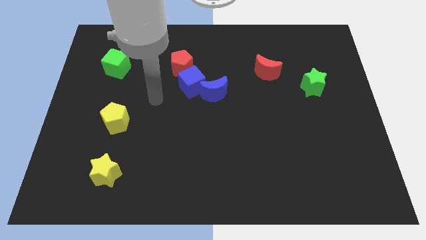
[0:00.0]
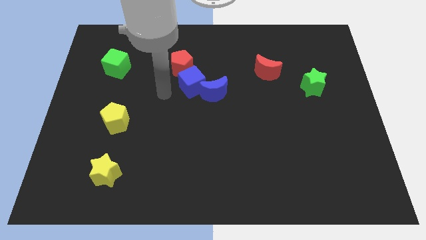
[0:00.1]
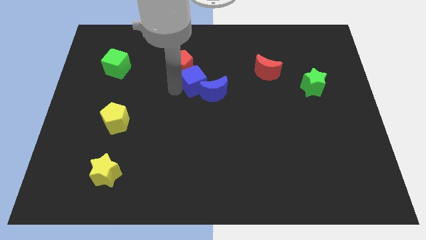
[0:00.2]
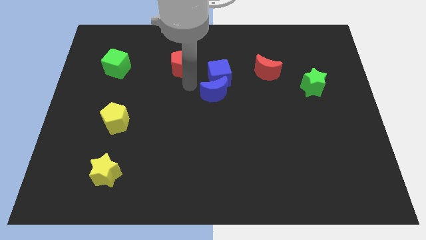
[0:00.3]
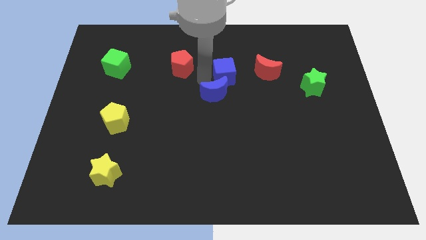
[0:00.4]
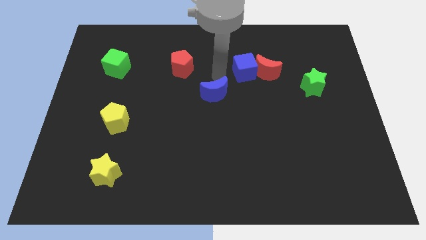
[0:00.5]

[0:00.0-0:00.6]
separate the blue moon from the blue cube

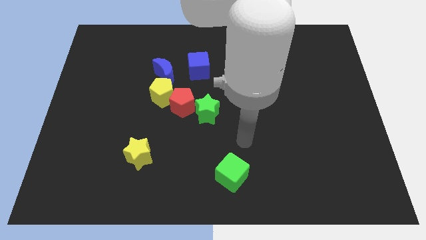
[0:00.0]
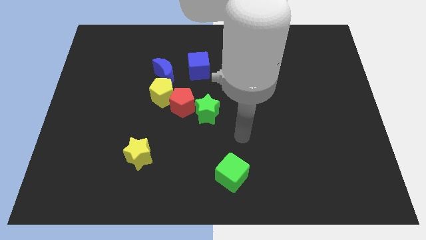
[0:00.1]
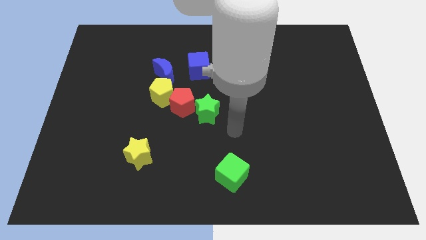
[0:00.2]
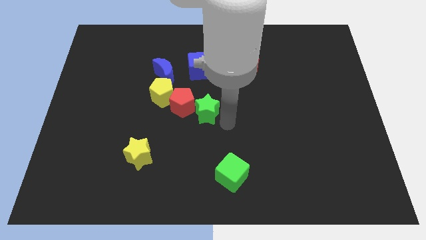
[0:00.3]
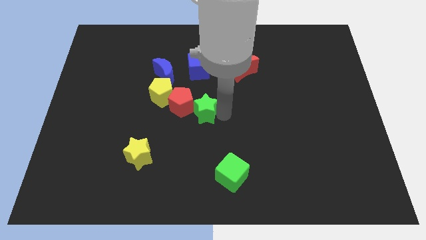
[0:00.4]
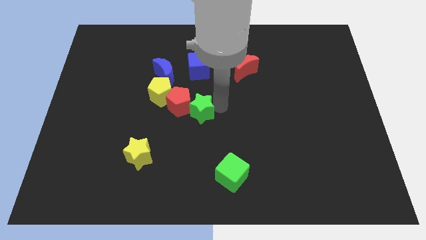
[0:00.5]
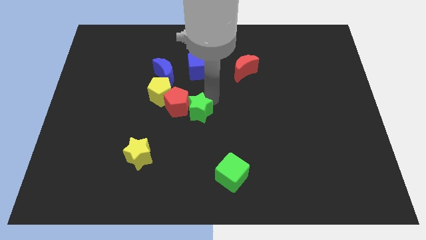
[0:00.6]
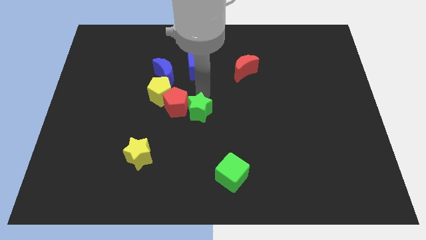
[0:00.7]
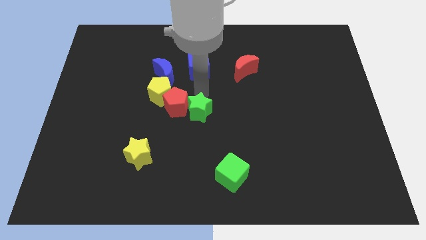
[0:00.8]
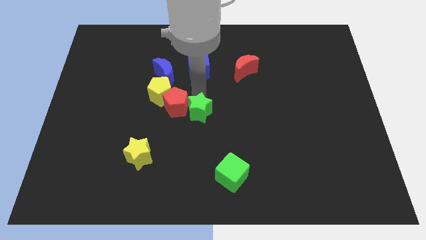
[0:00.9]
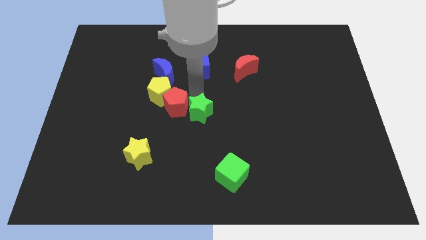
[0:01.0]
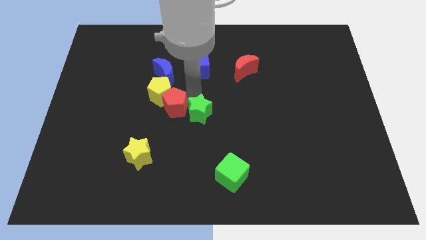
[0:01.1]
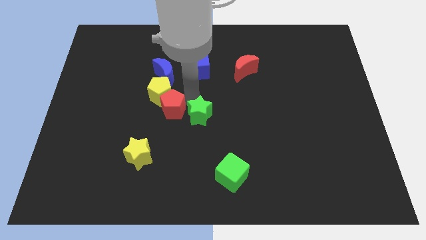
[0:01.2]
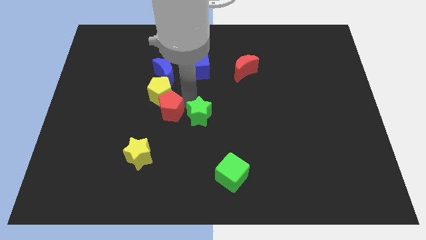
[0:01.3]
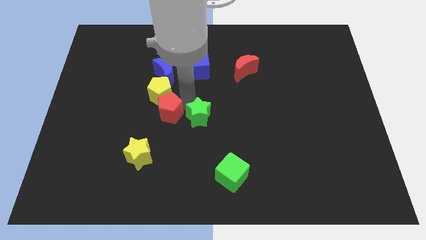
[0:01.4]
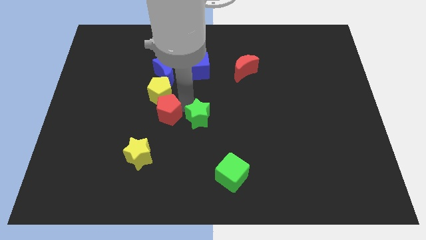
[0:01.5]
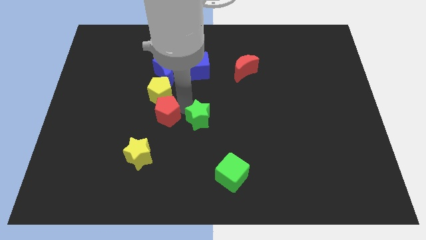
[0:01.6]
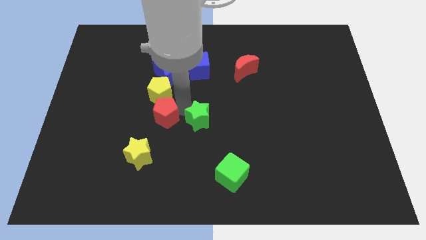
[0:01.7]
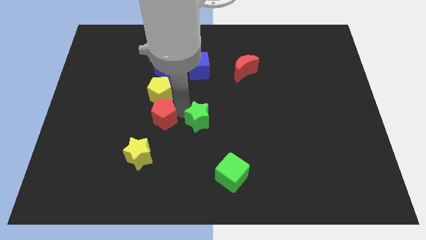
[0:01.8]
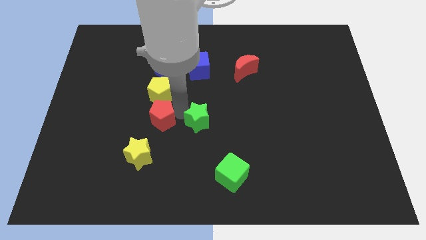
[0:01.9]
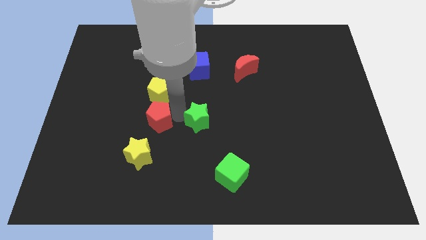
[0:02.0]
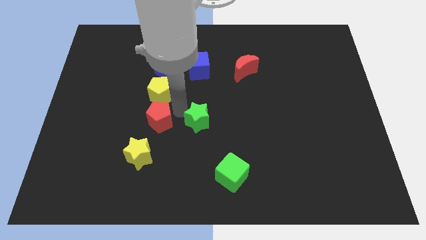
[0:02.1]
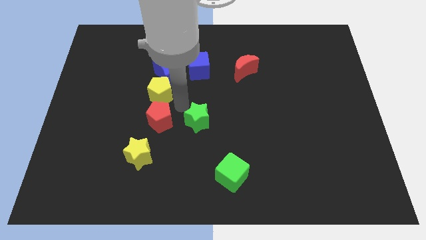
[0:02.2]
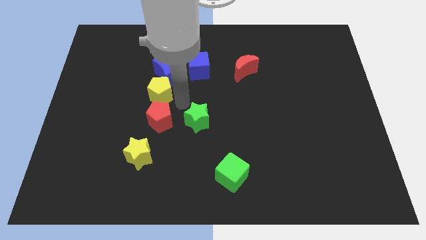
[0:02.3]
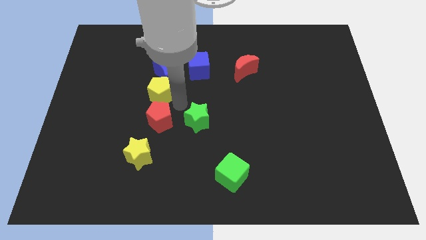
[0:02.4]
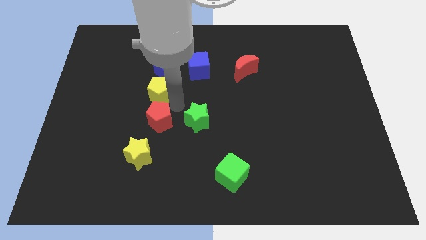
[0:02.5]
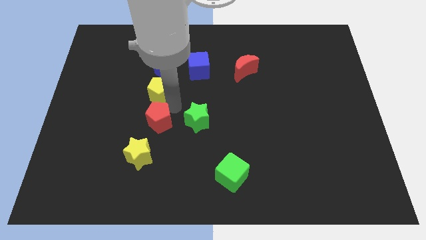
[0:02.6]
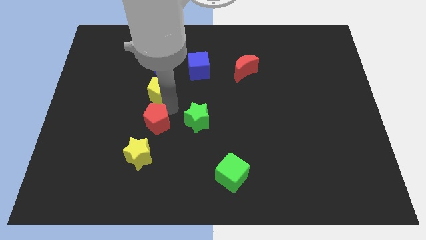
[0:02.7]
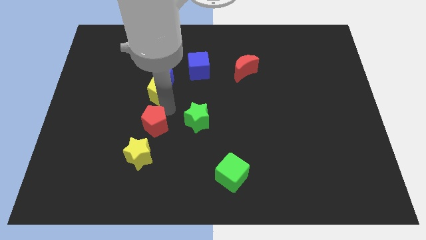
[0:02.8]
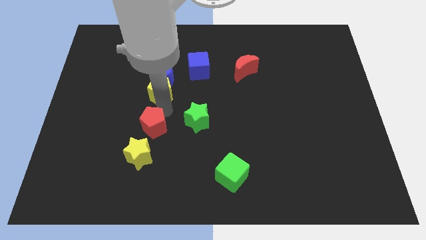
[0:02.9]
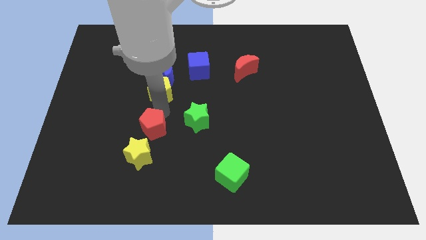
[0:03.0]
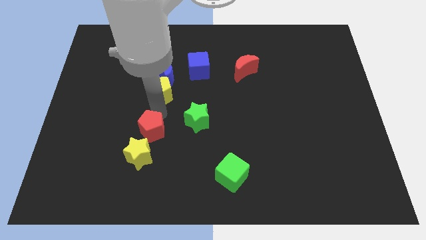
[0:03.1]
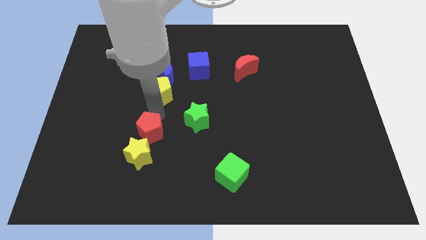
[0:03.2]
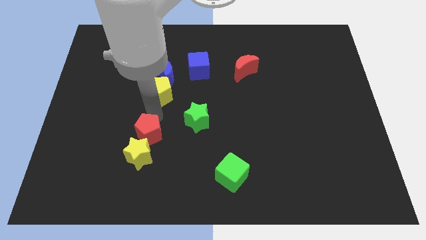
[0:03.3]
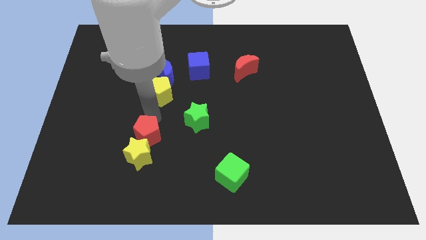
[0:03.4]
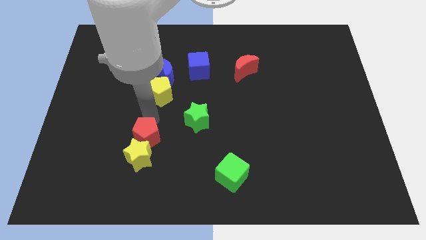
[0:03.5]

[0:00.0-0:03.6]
pull the red pentagon apart from the yellow pentagon and green star

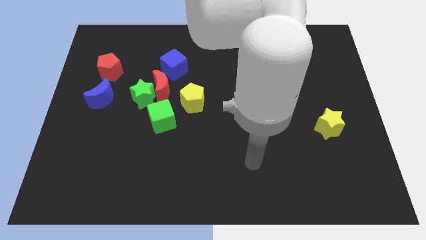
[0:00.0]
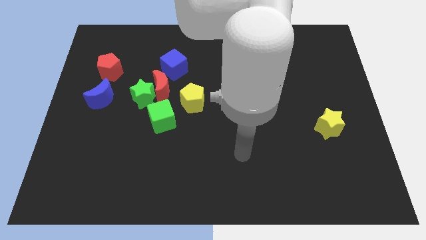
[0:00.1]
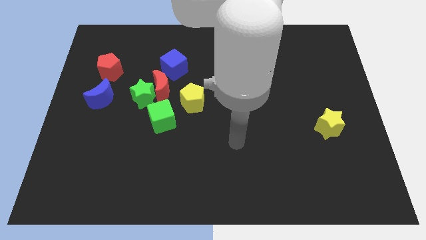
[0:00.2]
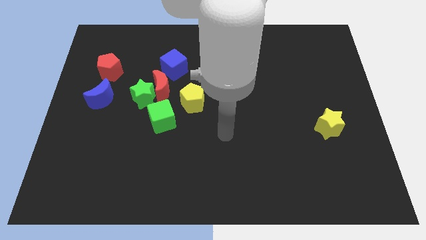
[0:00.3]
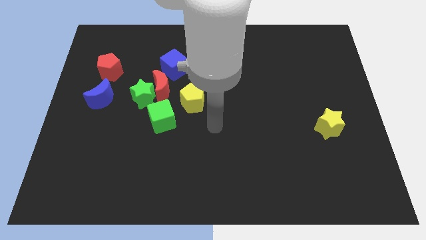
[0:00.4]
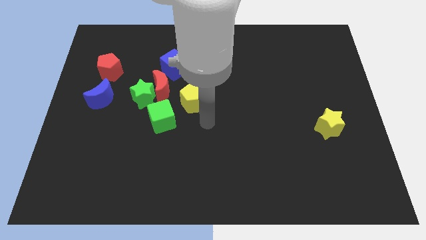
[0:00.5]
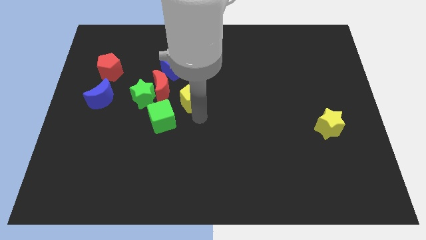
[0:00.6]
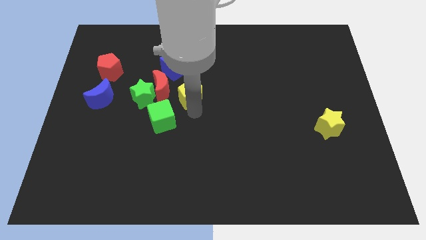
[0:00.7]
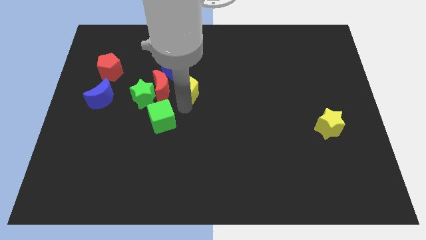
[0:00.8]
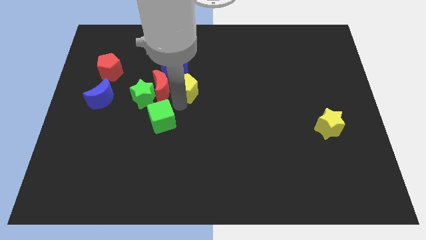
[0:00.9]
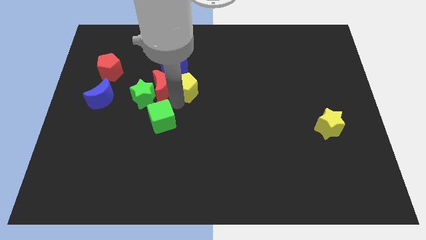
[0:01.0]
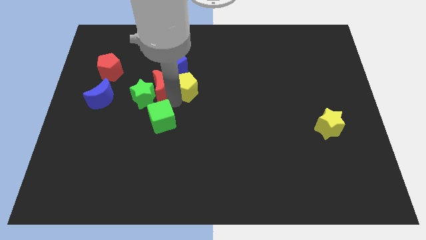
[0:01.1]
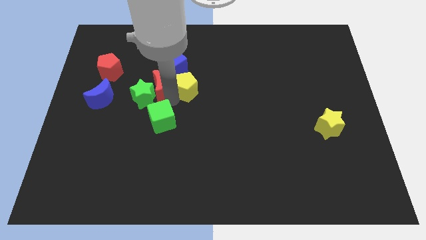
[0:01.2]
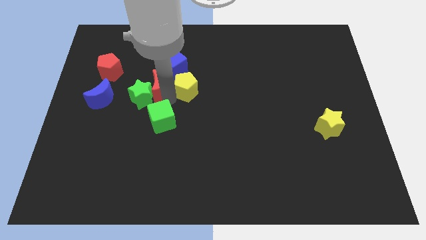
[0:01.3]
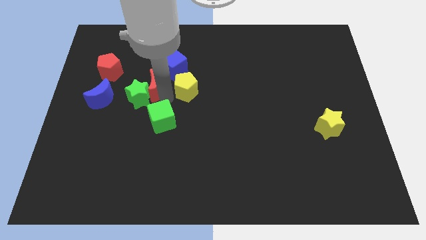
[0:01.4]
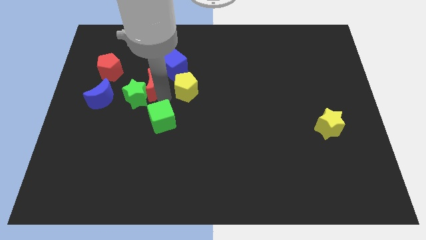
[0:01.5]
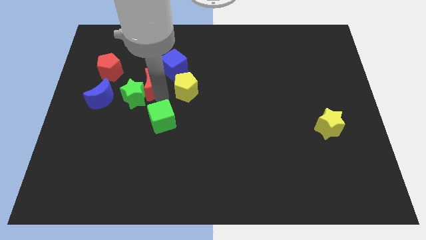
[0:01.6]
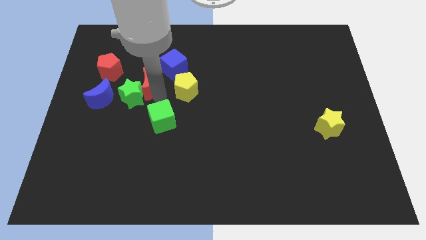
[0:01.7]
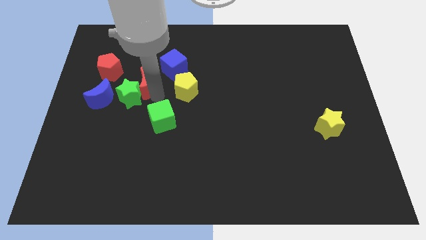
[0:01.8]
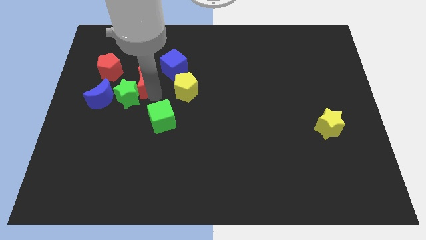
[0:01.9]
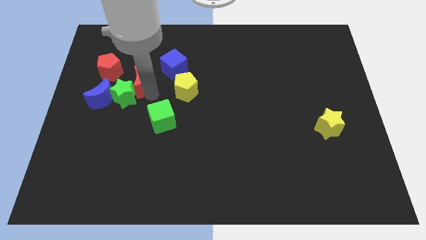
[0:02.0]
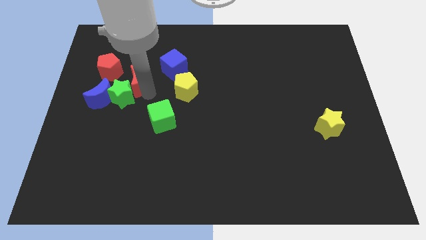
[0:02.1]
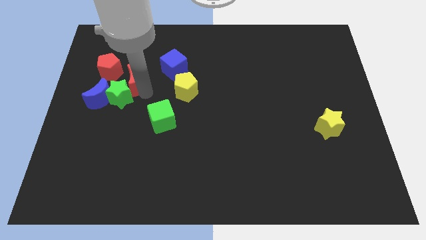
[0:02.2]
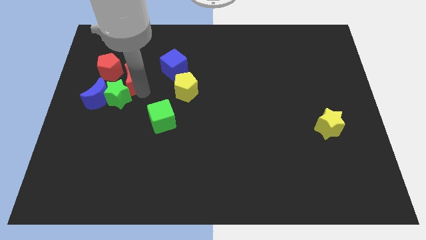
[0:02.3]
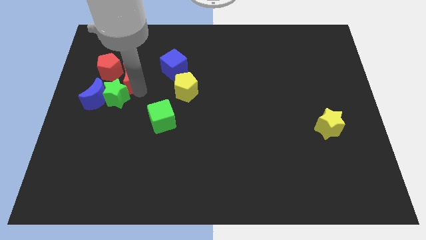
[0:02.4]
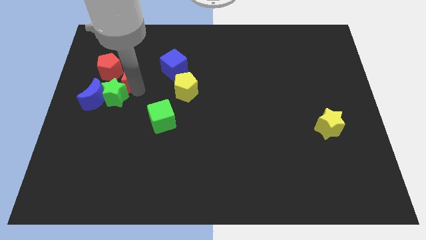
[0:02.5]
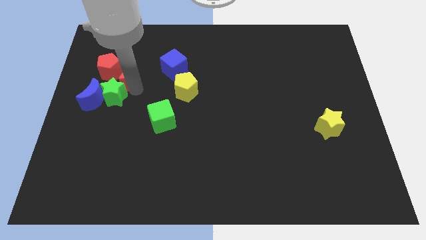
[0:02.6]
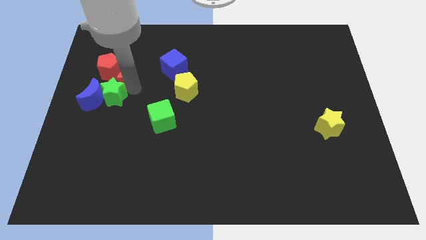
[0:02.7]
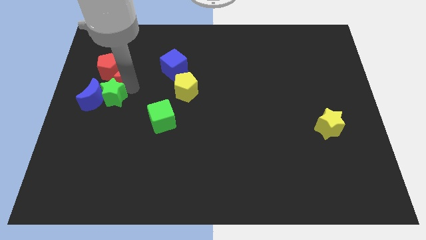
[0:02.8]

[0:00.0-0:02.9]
pull the red moon apart from the clump

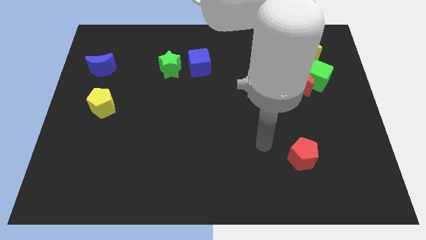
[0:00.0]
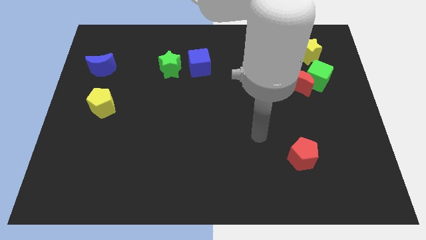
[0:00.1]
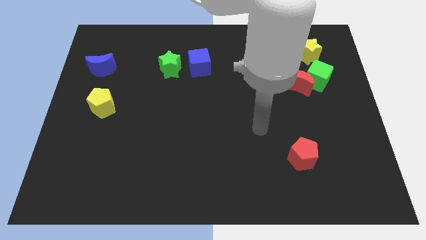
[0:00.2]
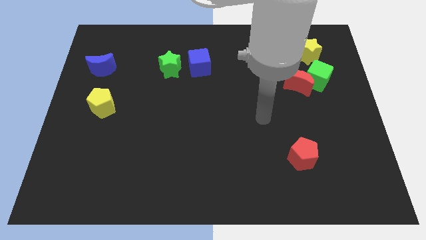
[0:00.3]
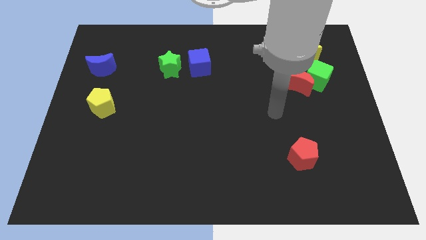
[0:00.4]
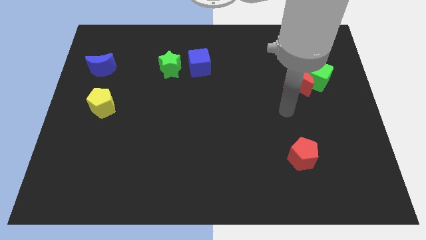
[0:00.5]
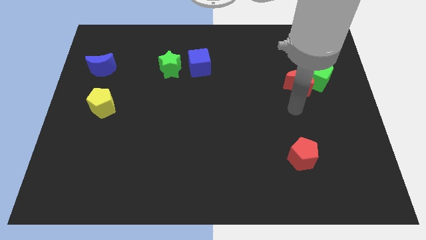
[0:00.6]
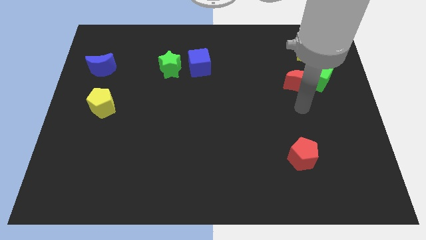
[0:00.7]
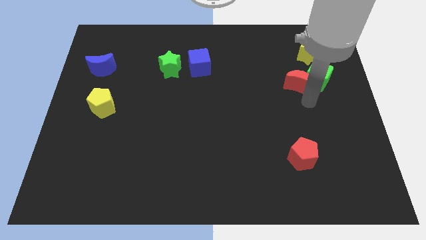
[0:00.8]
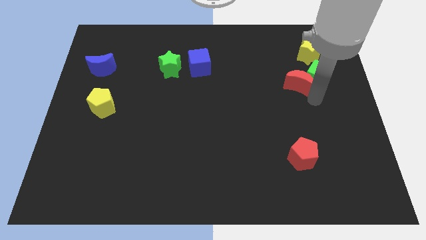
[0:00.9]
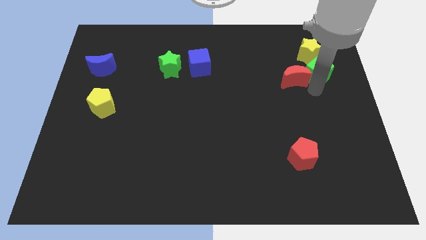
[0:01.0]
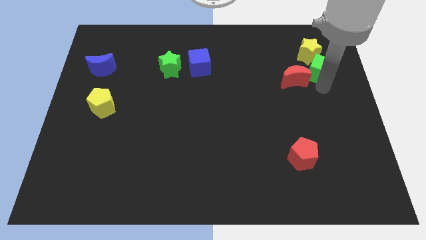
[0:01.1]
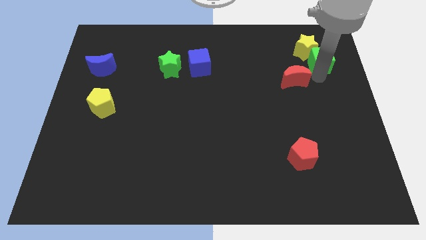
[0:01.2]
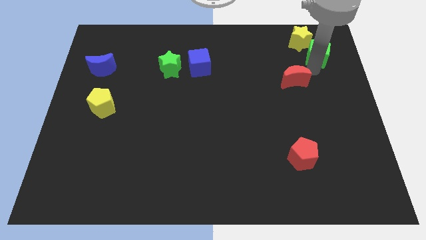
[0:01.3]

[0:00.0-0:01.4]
move the red moon away from the green cube

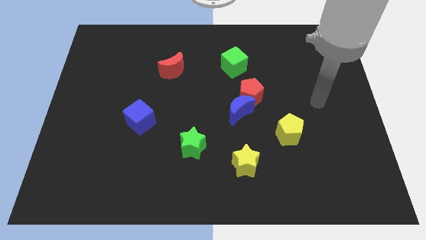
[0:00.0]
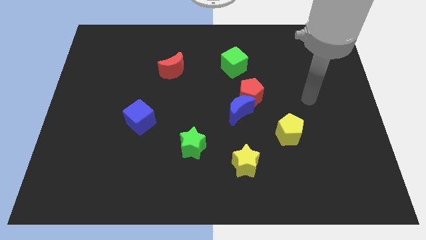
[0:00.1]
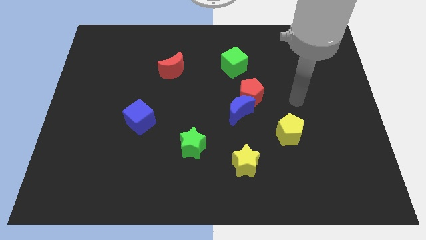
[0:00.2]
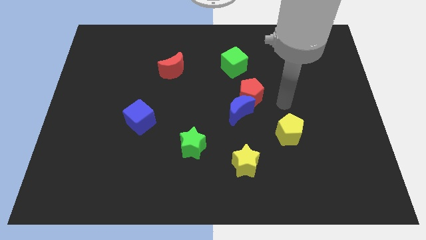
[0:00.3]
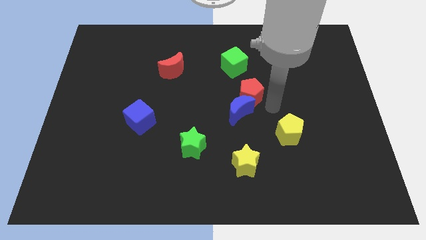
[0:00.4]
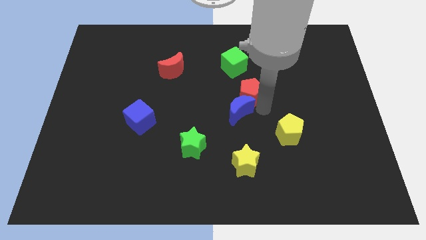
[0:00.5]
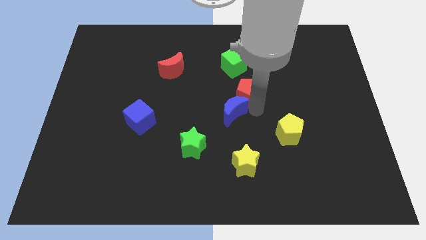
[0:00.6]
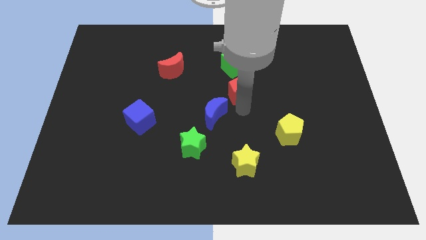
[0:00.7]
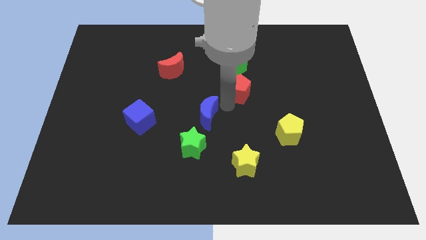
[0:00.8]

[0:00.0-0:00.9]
pull the red pentagon apart from the blue moon
